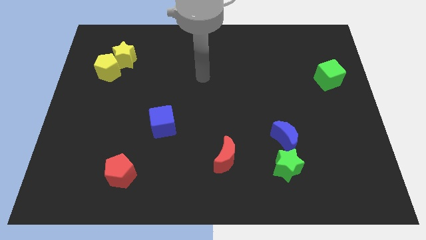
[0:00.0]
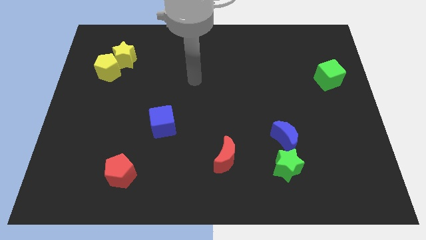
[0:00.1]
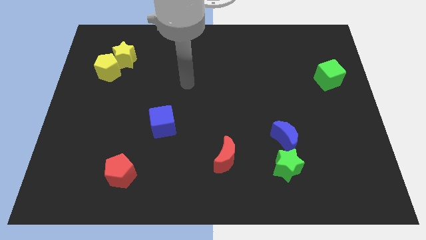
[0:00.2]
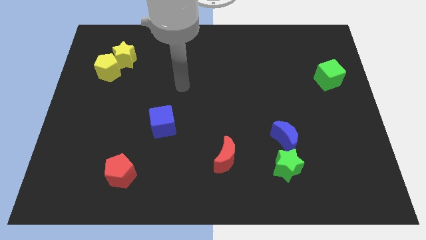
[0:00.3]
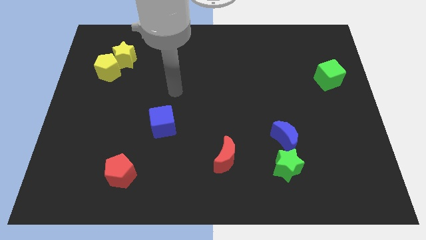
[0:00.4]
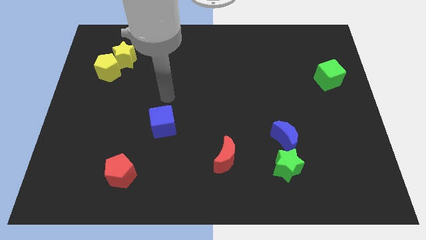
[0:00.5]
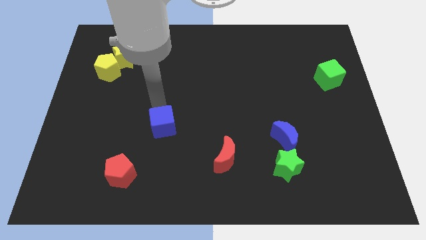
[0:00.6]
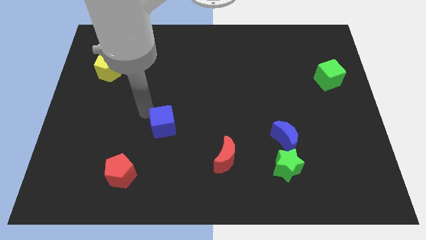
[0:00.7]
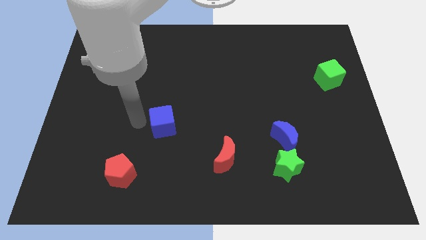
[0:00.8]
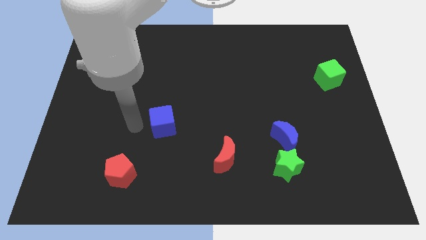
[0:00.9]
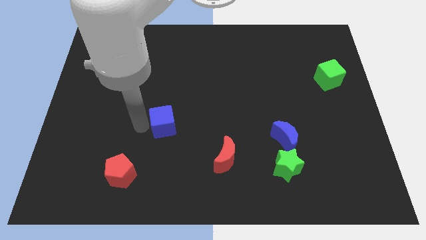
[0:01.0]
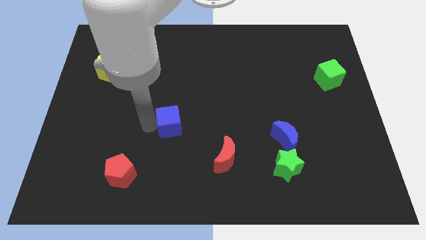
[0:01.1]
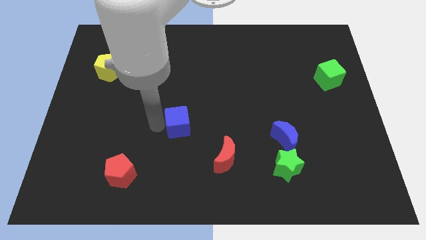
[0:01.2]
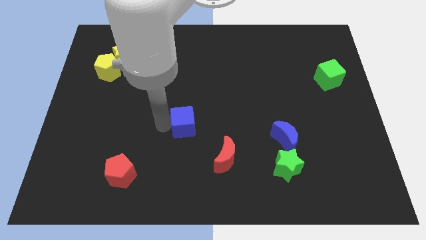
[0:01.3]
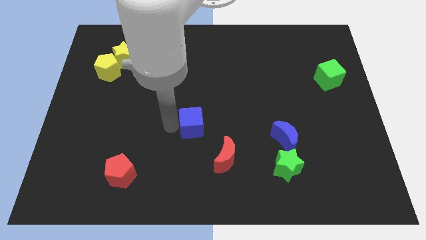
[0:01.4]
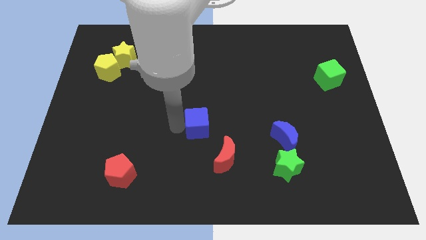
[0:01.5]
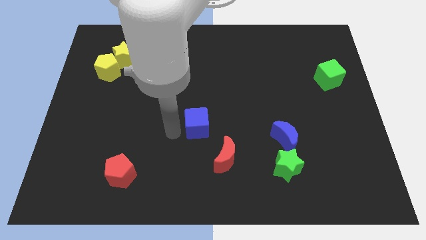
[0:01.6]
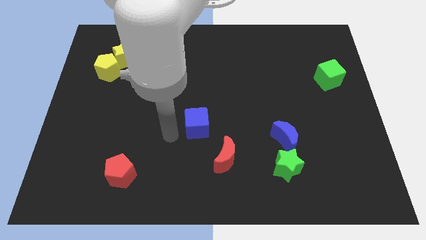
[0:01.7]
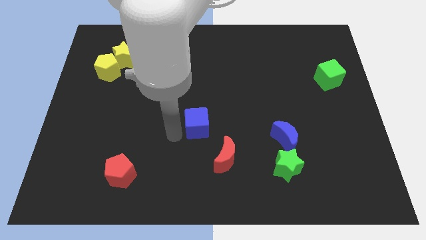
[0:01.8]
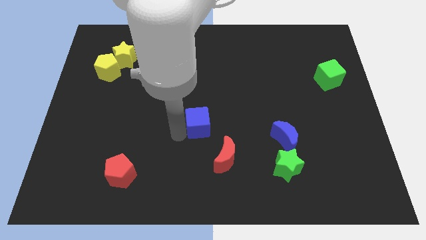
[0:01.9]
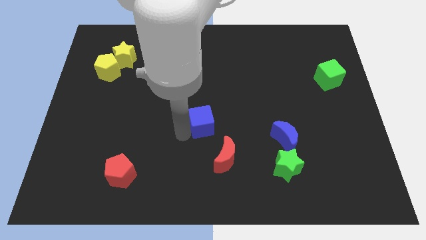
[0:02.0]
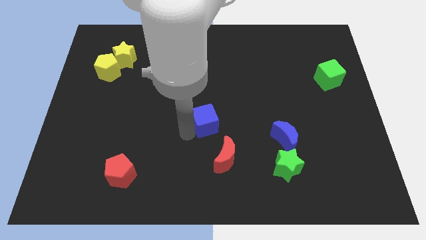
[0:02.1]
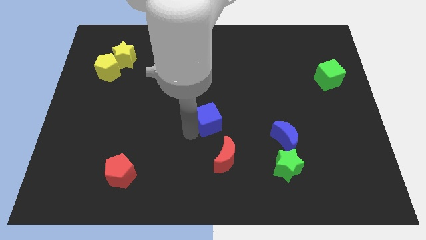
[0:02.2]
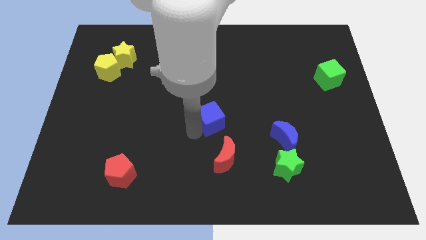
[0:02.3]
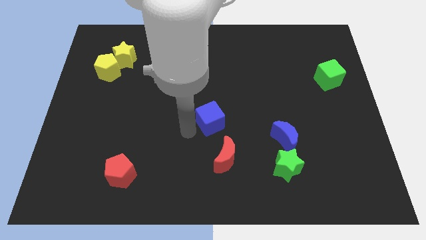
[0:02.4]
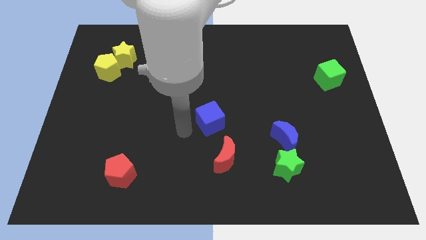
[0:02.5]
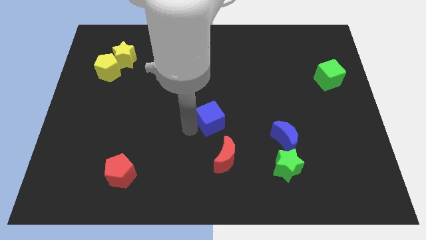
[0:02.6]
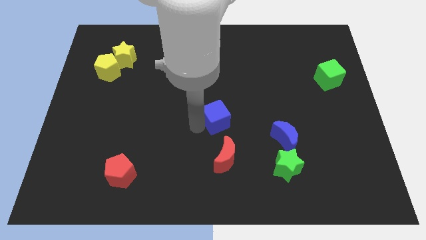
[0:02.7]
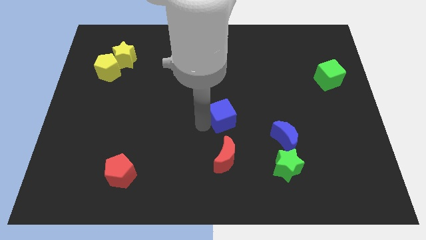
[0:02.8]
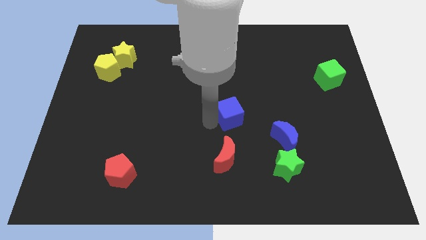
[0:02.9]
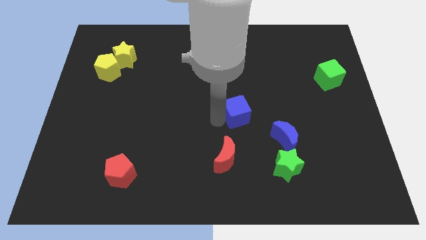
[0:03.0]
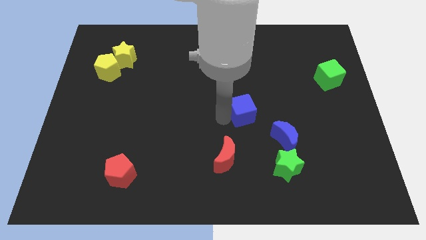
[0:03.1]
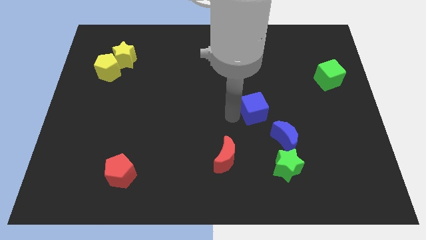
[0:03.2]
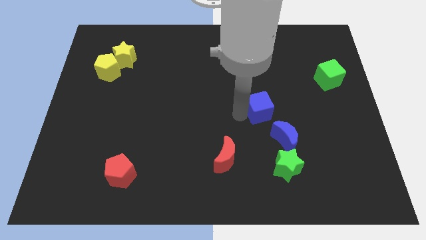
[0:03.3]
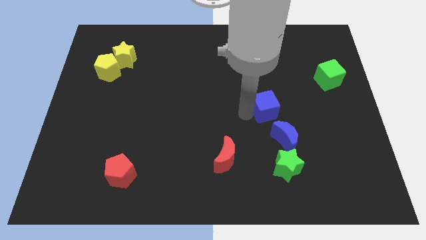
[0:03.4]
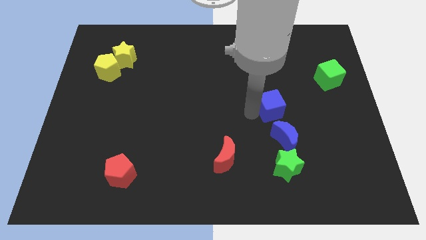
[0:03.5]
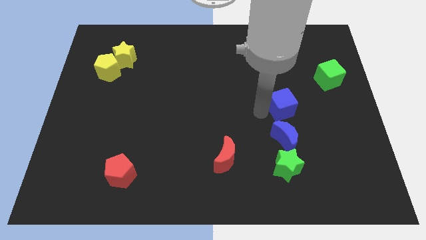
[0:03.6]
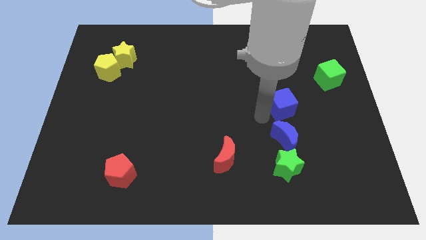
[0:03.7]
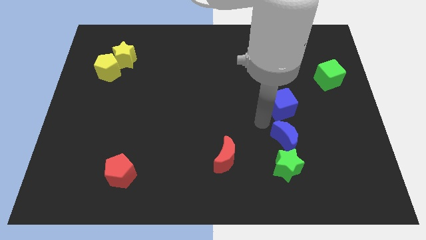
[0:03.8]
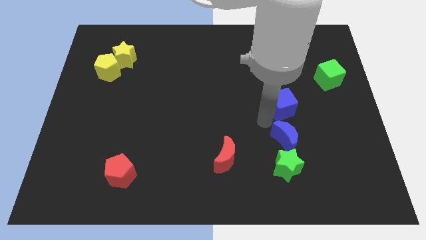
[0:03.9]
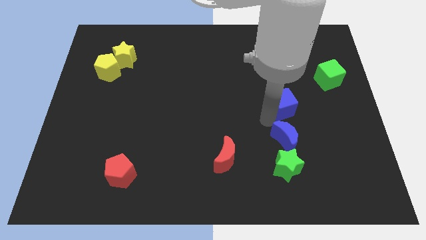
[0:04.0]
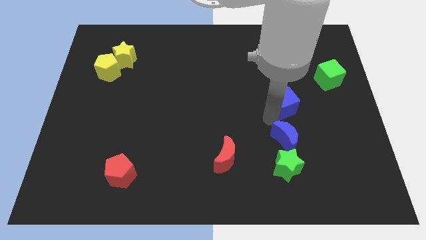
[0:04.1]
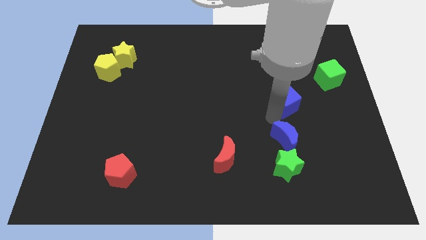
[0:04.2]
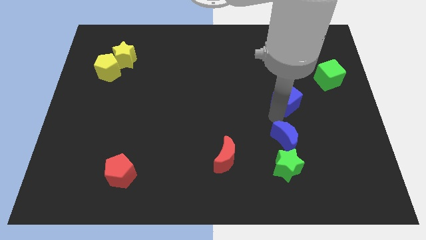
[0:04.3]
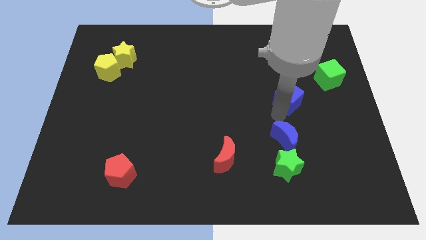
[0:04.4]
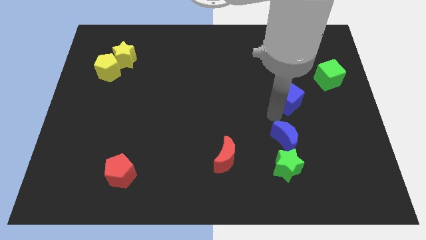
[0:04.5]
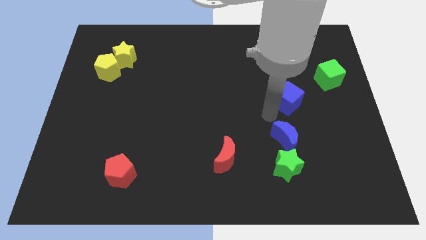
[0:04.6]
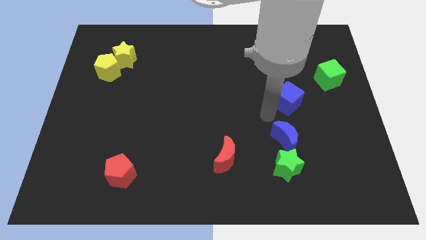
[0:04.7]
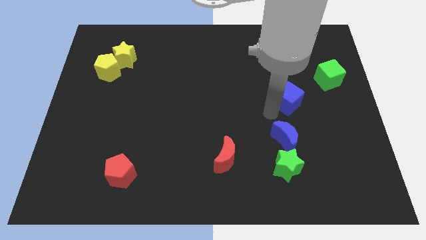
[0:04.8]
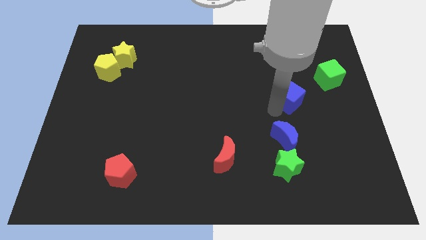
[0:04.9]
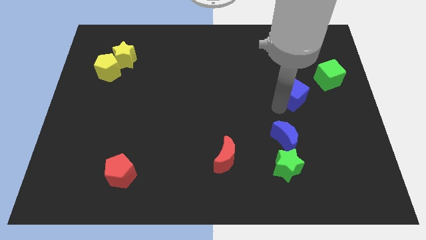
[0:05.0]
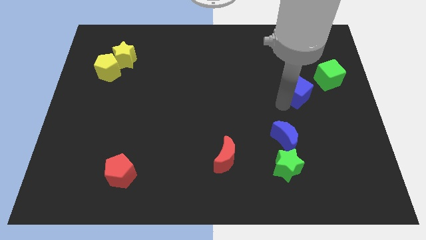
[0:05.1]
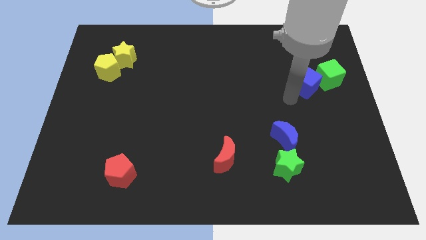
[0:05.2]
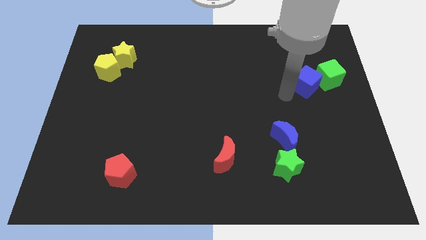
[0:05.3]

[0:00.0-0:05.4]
put the blue cube next to the green cube

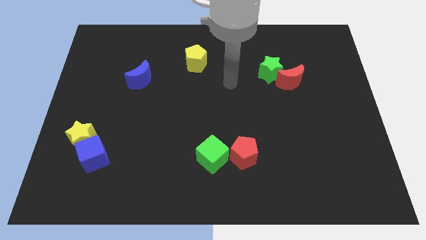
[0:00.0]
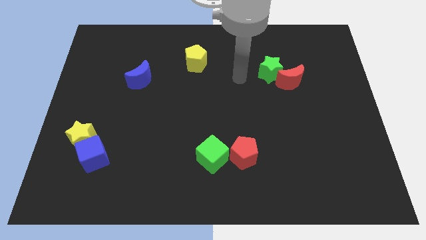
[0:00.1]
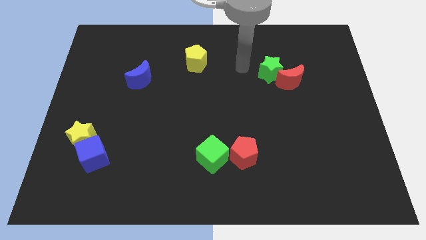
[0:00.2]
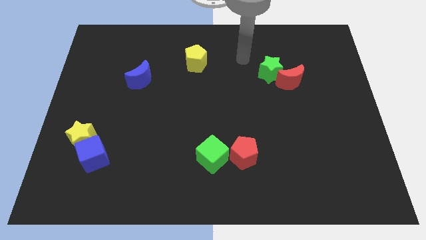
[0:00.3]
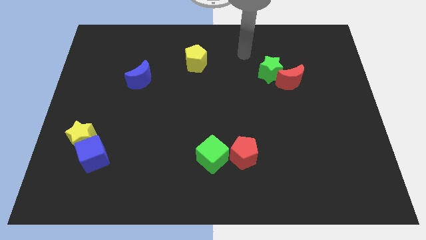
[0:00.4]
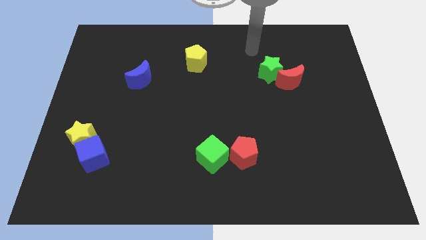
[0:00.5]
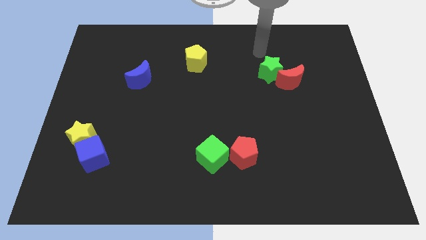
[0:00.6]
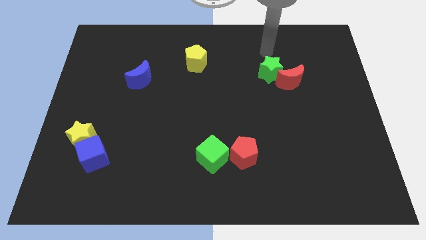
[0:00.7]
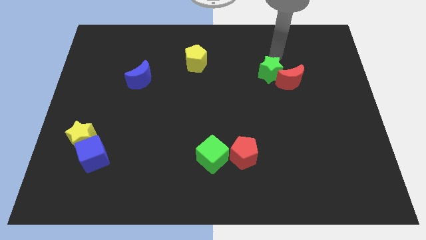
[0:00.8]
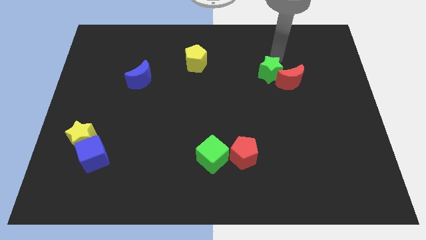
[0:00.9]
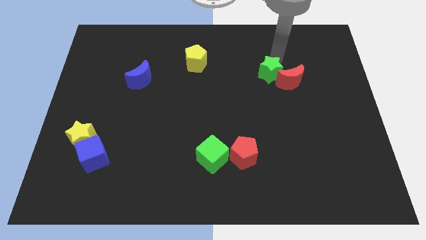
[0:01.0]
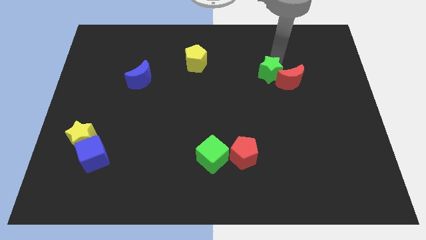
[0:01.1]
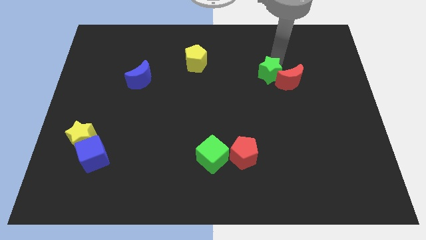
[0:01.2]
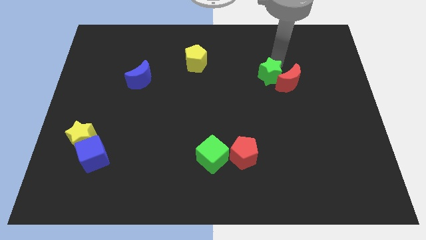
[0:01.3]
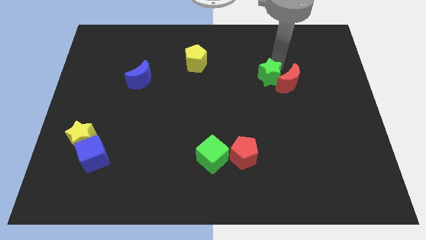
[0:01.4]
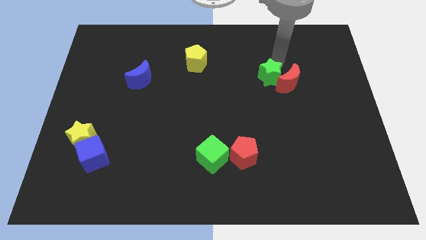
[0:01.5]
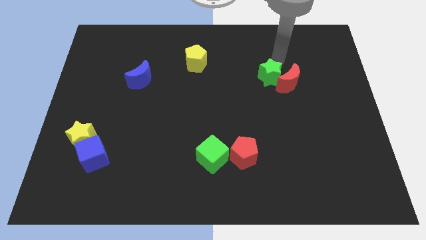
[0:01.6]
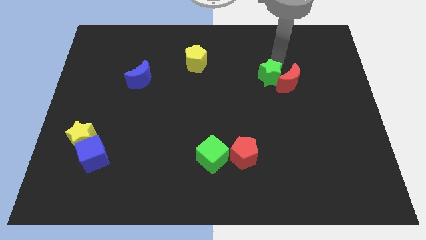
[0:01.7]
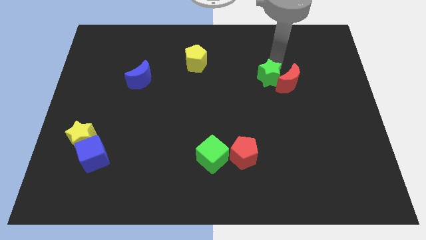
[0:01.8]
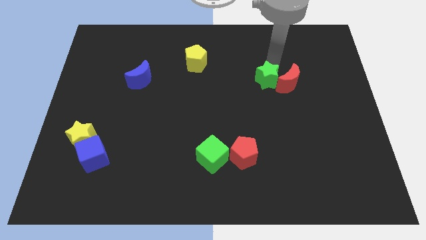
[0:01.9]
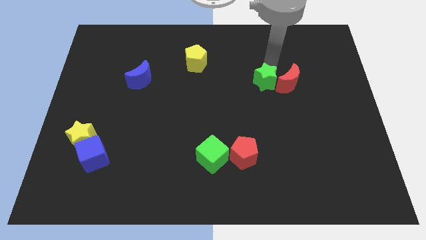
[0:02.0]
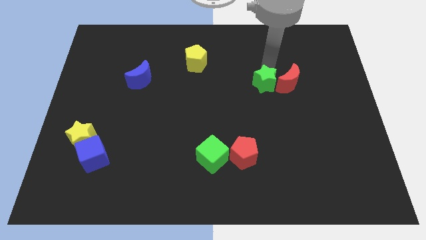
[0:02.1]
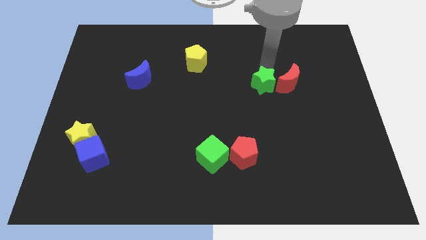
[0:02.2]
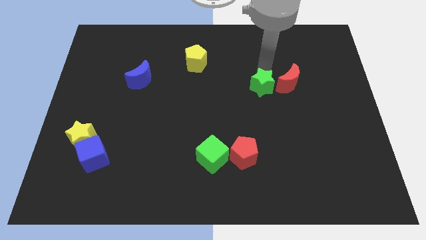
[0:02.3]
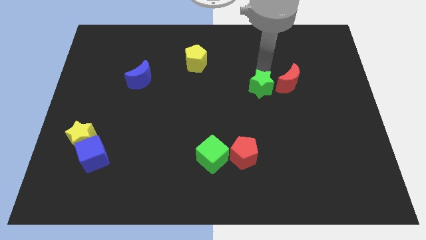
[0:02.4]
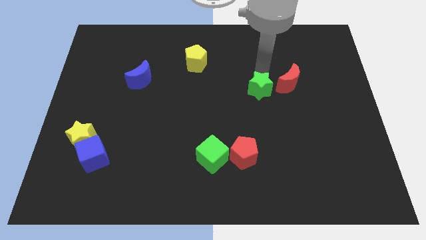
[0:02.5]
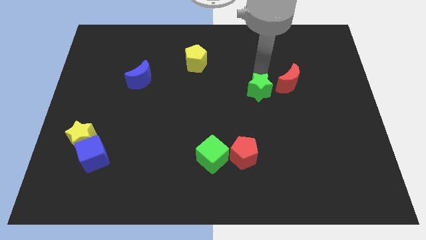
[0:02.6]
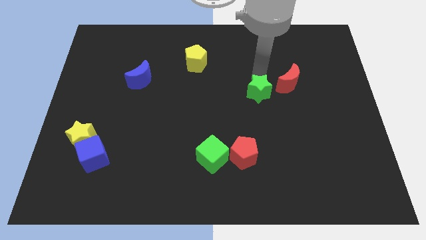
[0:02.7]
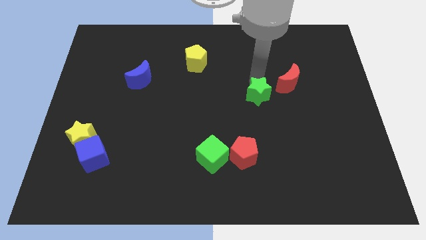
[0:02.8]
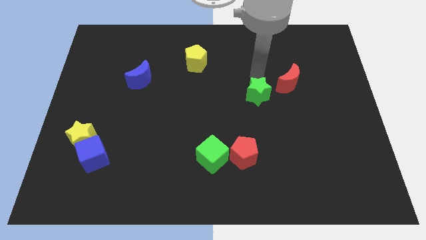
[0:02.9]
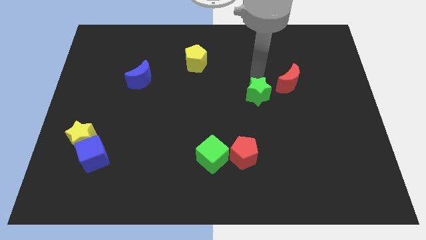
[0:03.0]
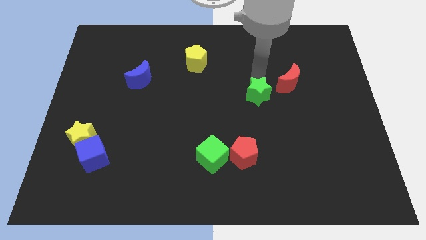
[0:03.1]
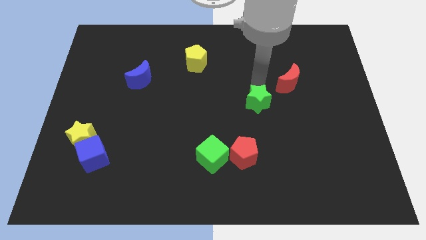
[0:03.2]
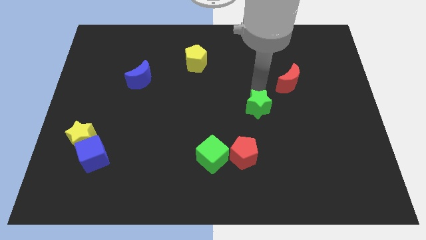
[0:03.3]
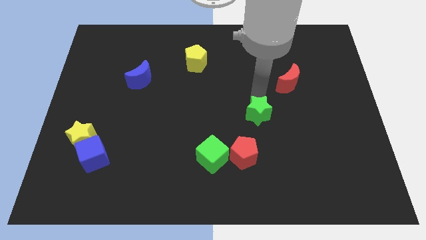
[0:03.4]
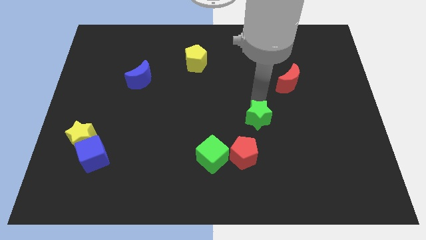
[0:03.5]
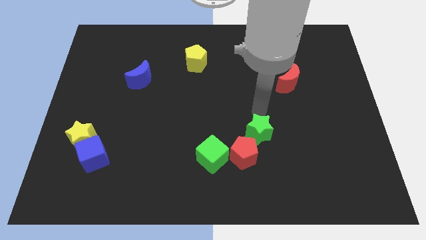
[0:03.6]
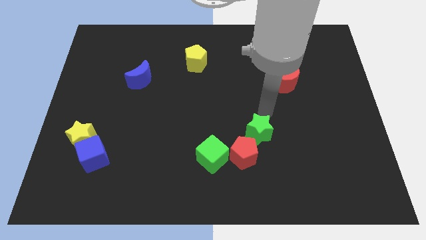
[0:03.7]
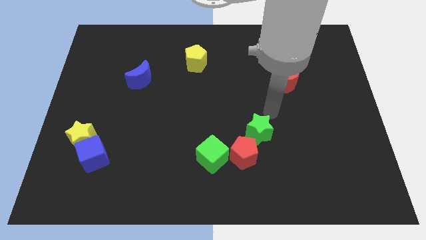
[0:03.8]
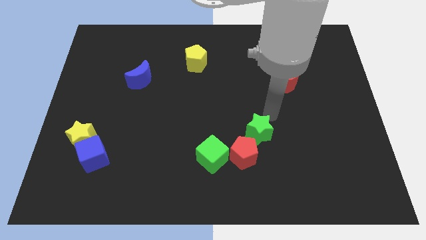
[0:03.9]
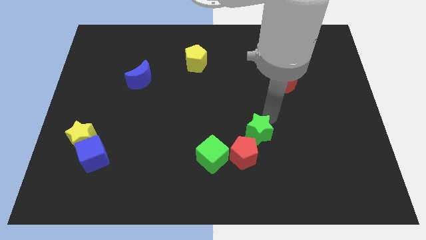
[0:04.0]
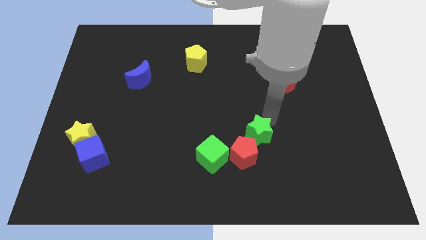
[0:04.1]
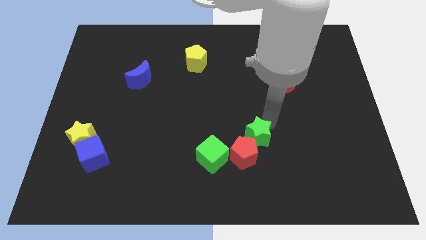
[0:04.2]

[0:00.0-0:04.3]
slide the green star to the red pentagon
